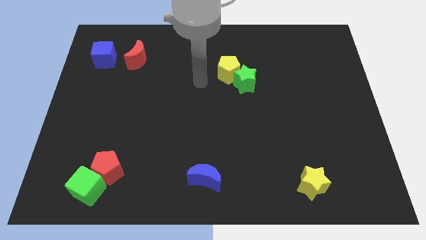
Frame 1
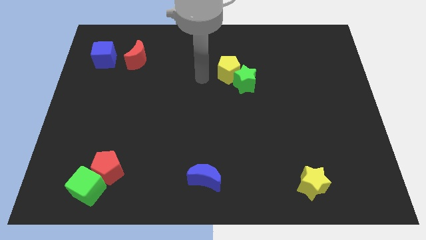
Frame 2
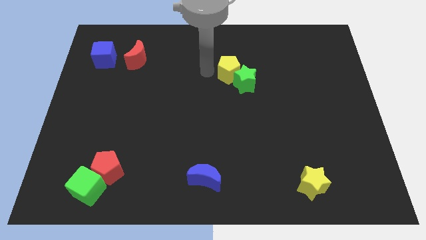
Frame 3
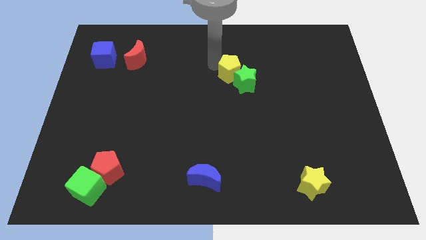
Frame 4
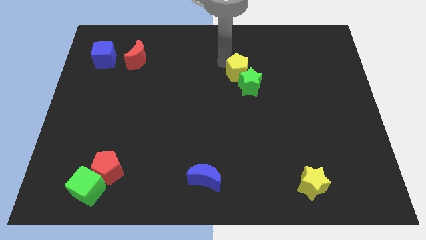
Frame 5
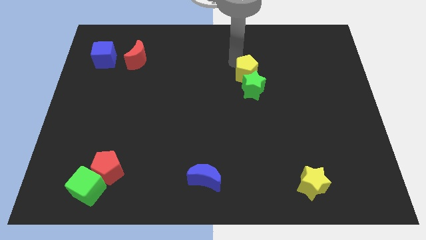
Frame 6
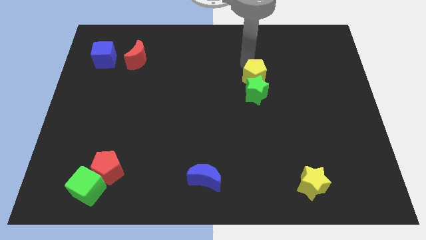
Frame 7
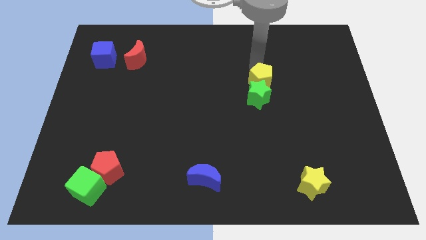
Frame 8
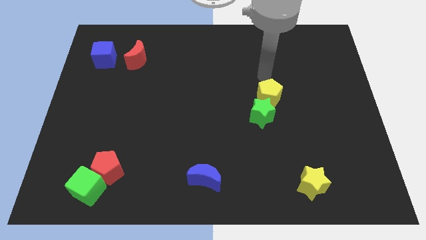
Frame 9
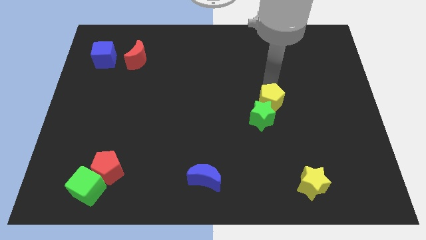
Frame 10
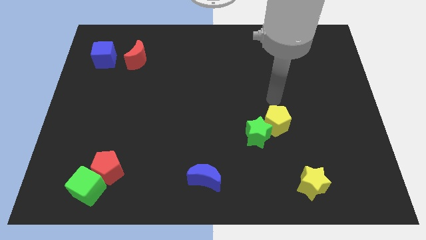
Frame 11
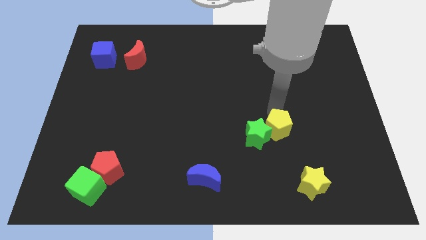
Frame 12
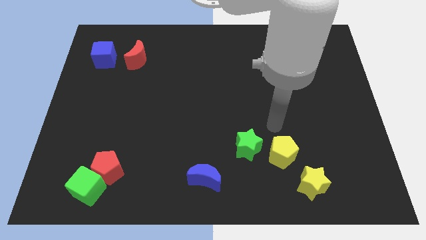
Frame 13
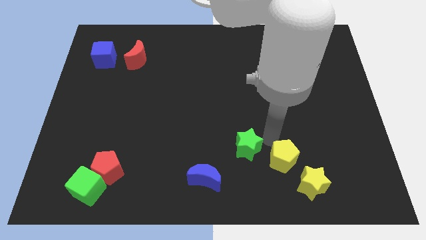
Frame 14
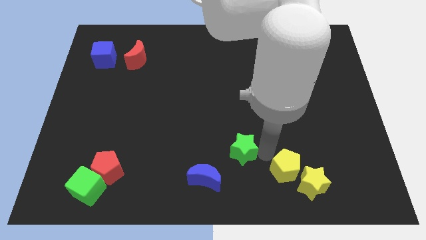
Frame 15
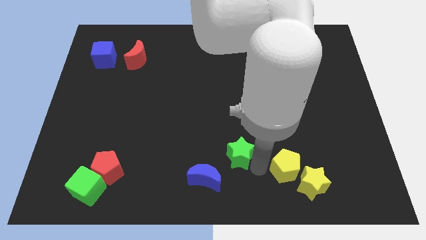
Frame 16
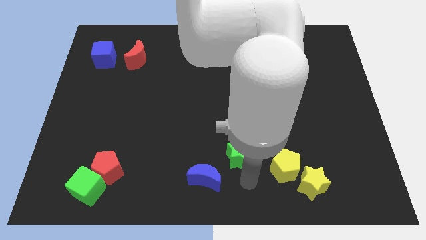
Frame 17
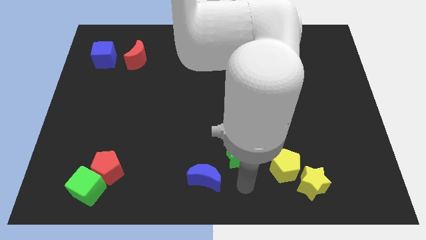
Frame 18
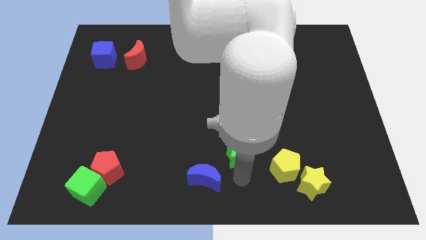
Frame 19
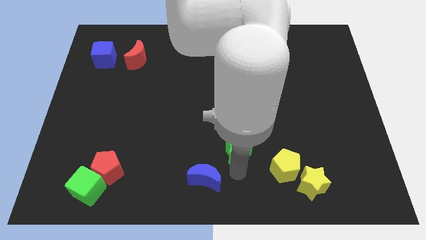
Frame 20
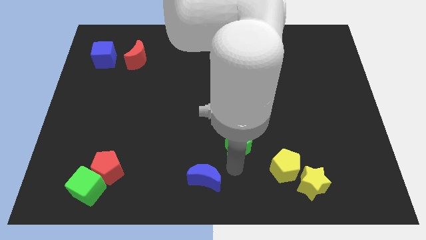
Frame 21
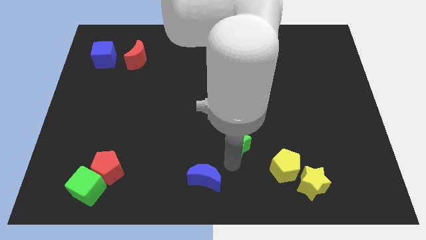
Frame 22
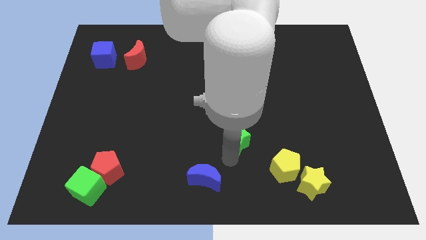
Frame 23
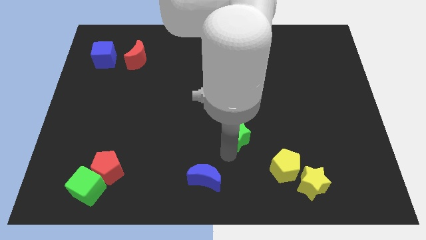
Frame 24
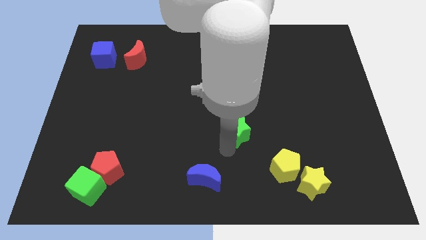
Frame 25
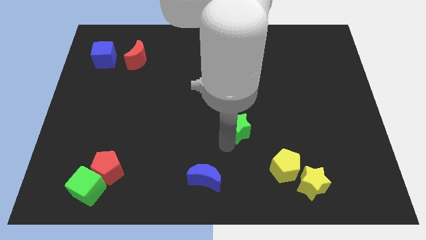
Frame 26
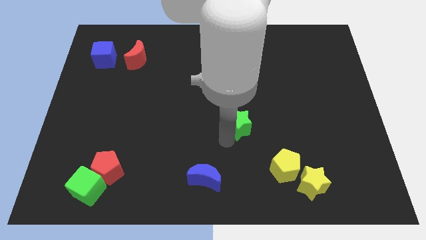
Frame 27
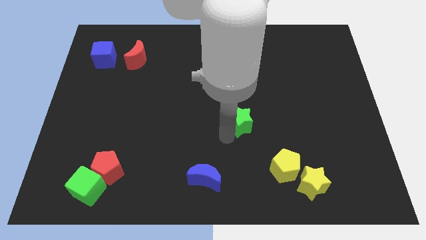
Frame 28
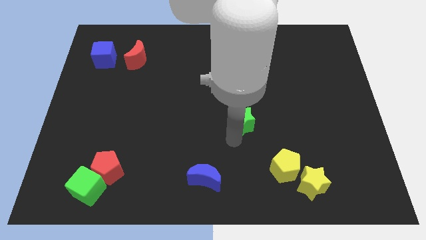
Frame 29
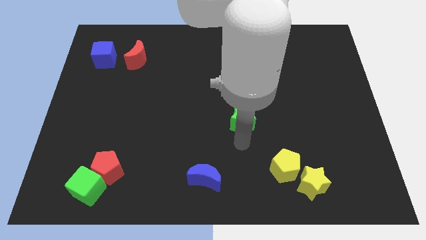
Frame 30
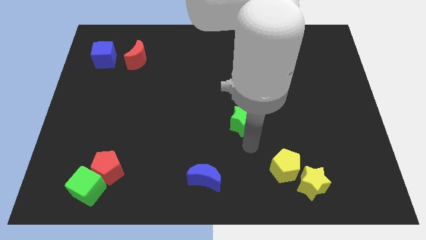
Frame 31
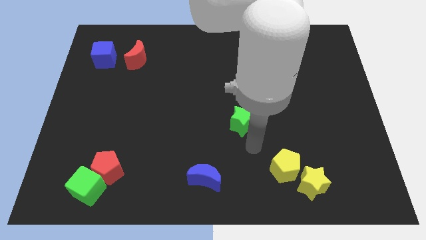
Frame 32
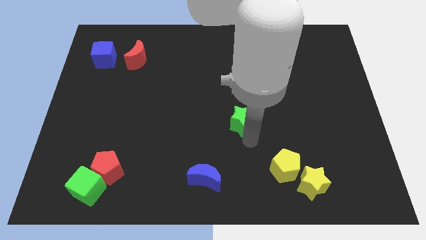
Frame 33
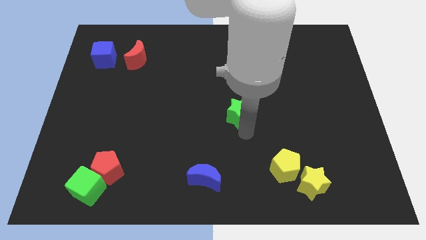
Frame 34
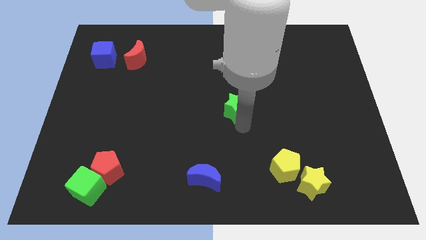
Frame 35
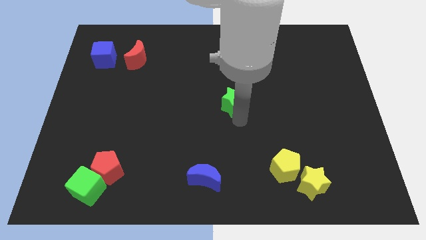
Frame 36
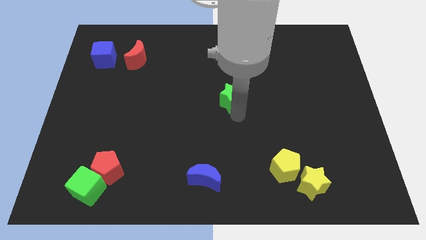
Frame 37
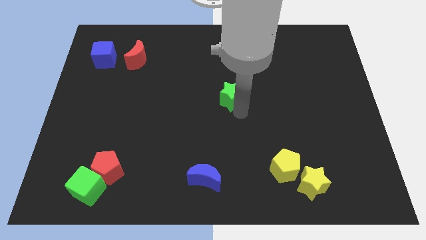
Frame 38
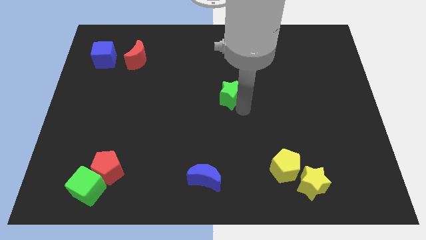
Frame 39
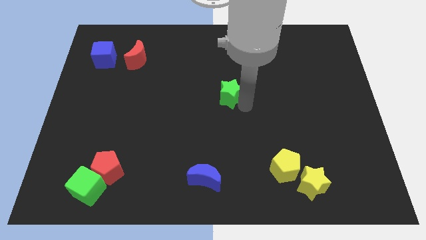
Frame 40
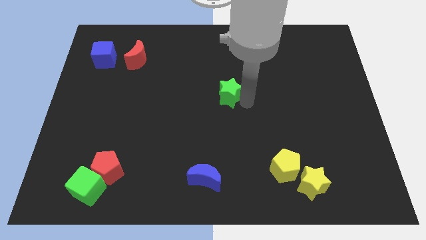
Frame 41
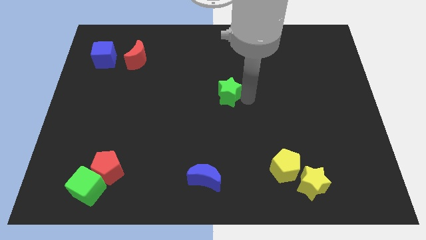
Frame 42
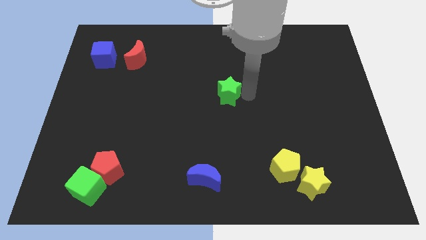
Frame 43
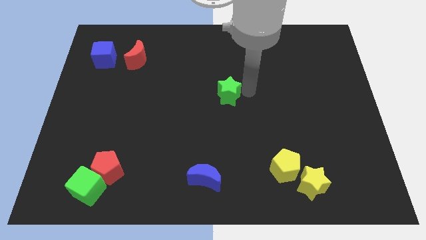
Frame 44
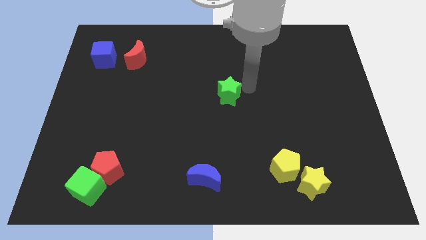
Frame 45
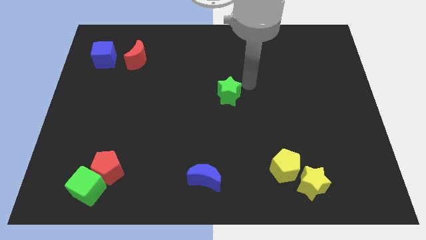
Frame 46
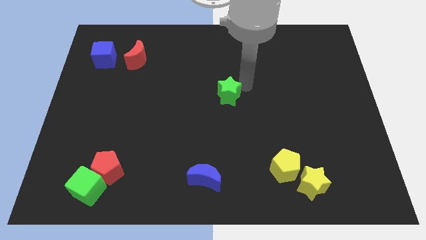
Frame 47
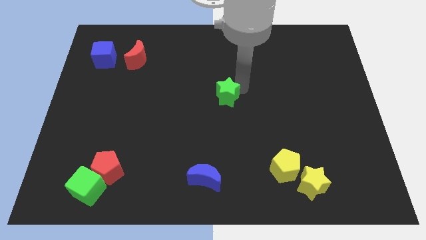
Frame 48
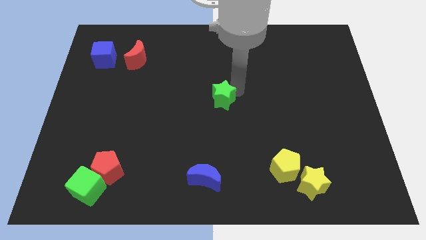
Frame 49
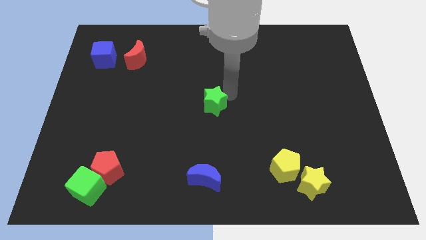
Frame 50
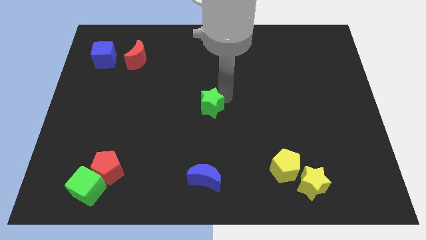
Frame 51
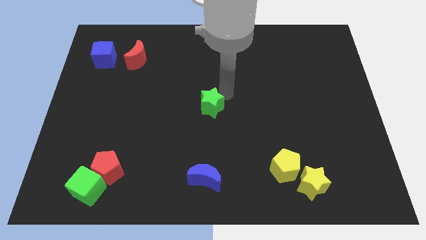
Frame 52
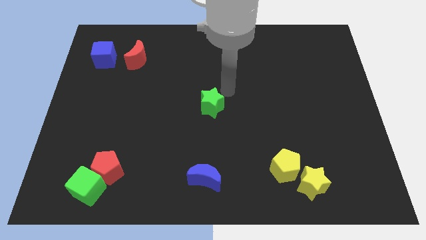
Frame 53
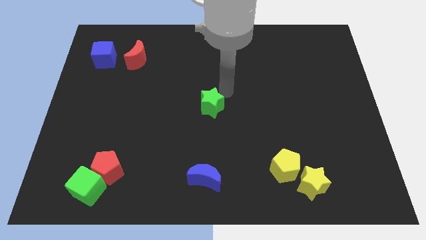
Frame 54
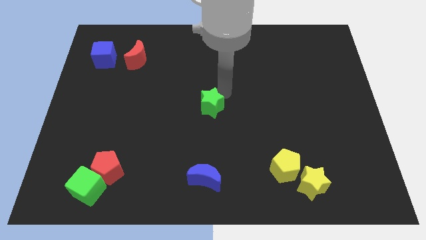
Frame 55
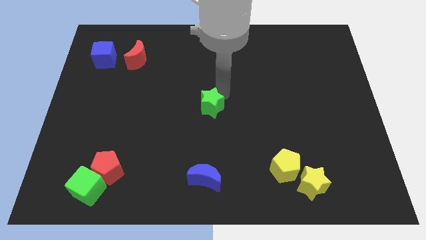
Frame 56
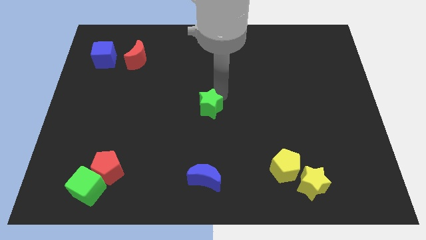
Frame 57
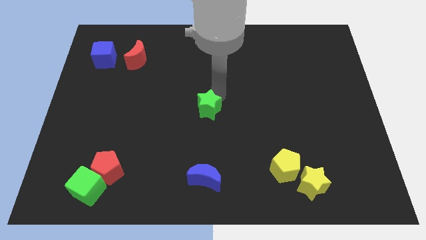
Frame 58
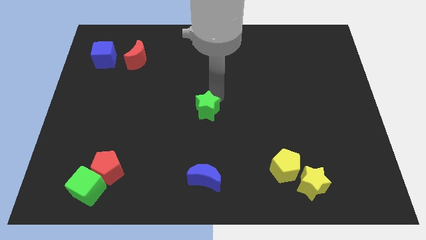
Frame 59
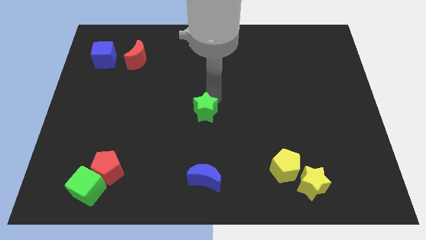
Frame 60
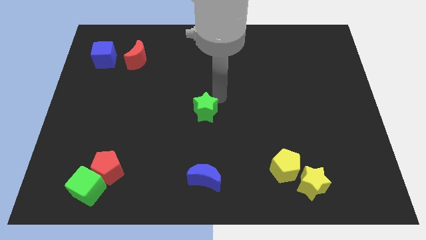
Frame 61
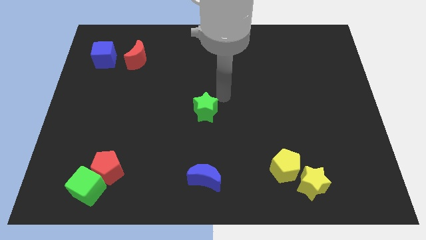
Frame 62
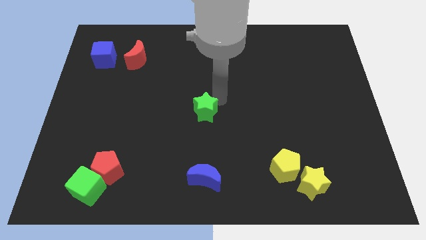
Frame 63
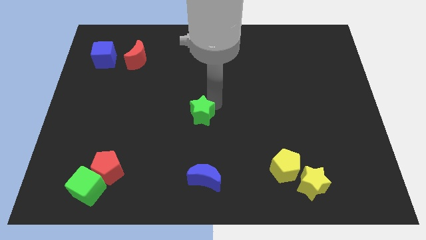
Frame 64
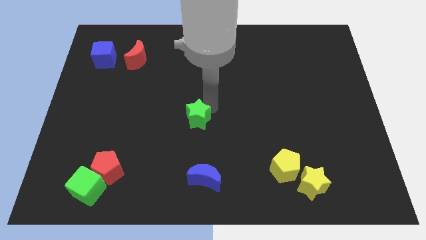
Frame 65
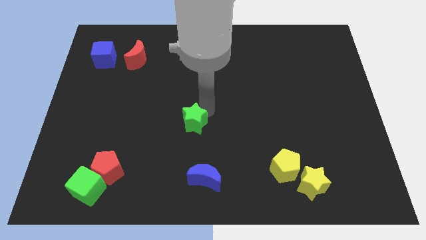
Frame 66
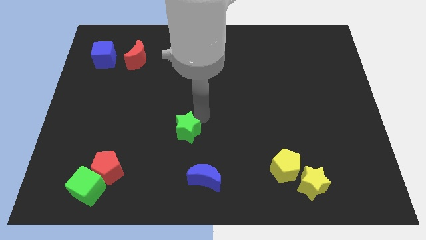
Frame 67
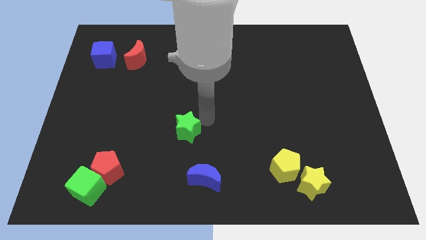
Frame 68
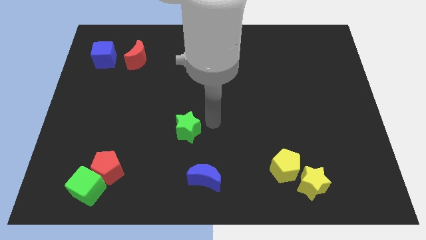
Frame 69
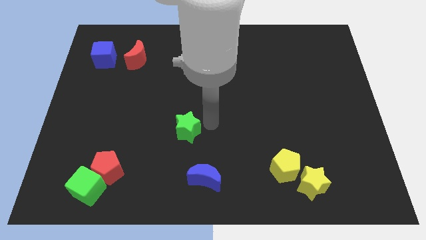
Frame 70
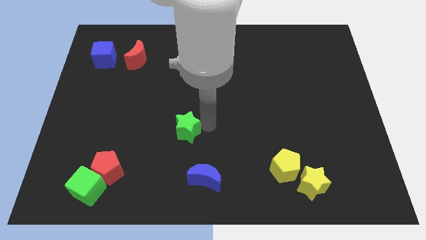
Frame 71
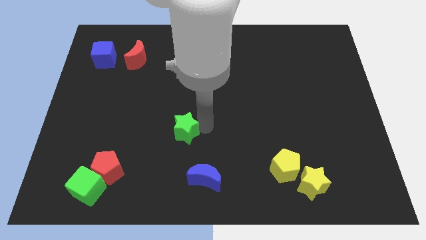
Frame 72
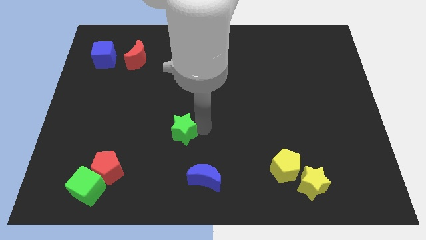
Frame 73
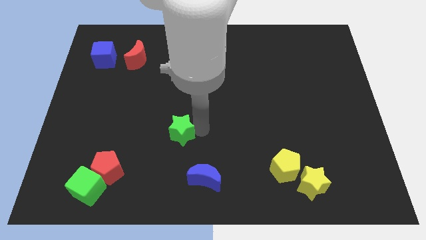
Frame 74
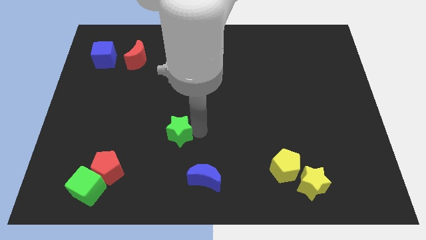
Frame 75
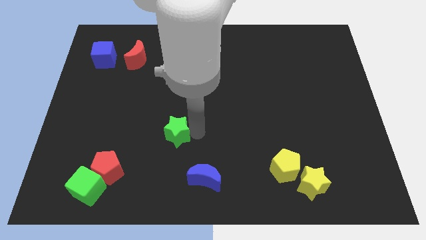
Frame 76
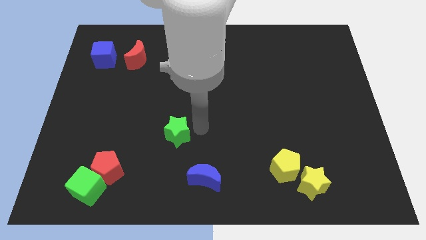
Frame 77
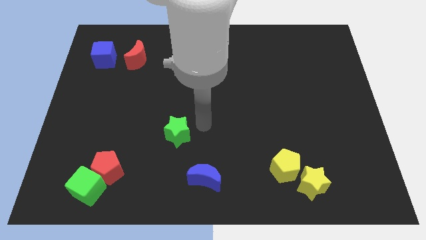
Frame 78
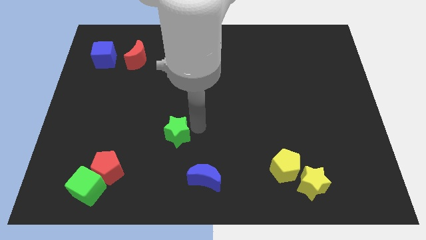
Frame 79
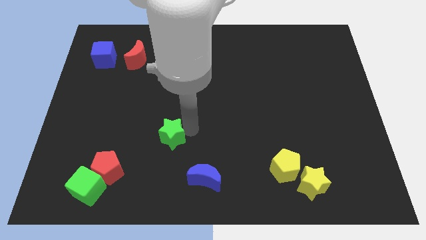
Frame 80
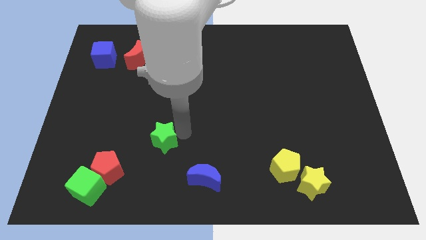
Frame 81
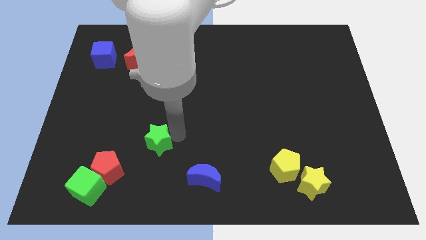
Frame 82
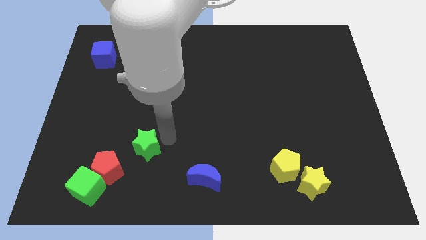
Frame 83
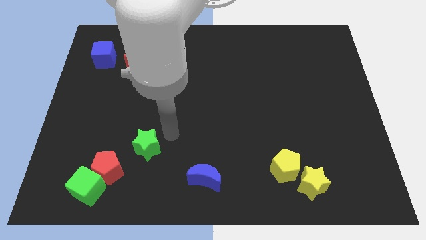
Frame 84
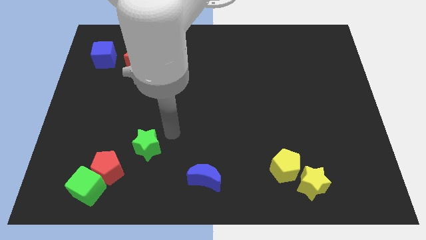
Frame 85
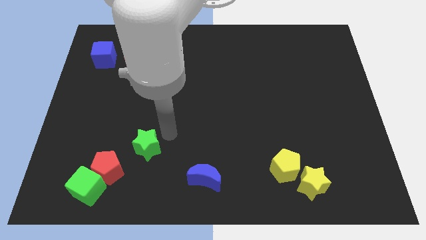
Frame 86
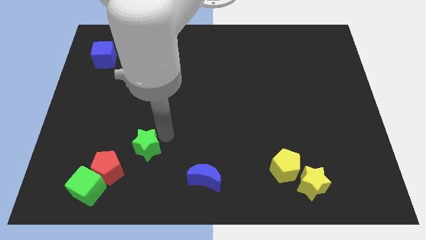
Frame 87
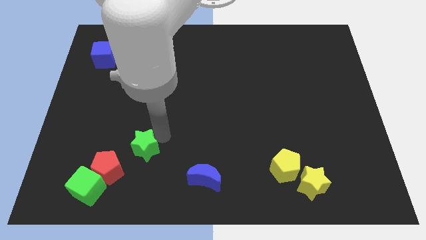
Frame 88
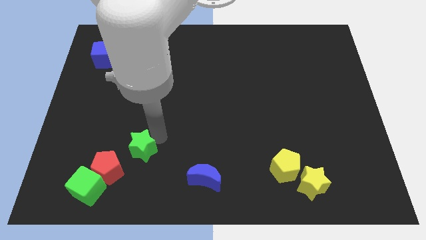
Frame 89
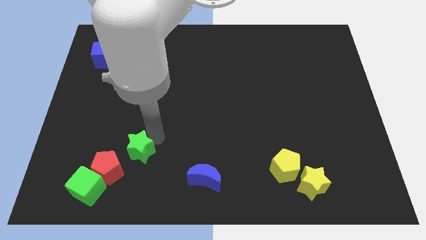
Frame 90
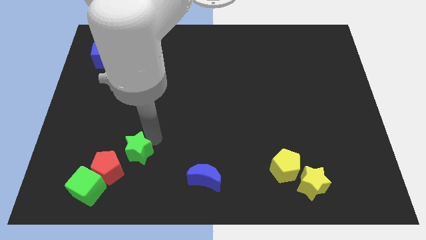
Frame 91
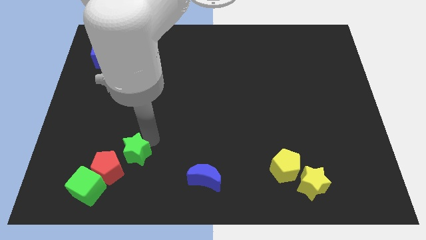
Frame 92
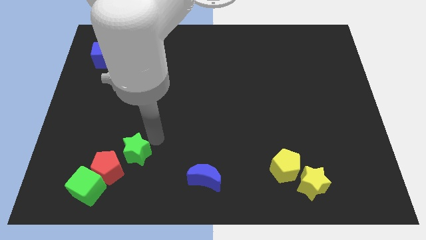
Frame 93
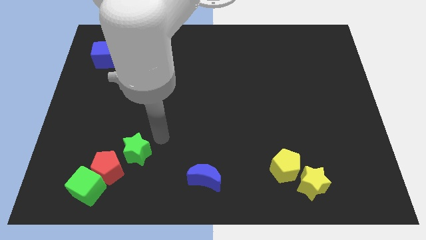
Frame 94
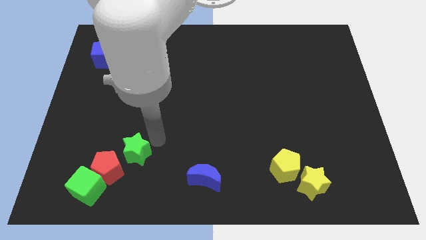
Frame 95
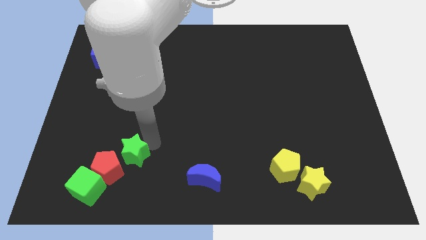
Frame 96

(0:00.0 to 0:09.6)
put the green star close to the red pentagon
